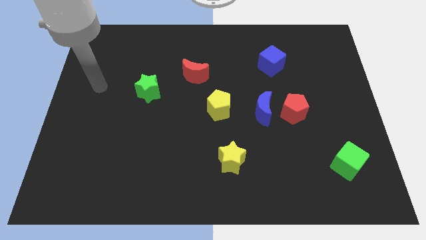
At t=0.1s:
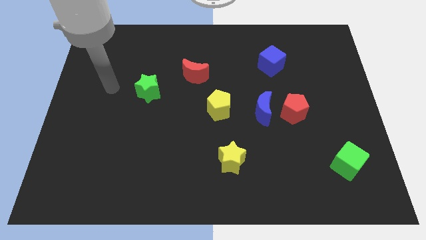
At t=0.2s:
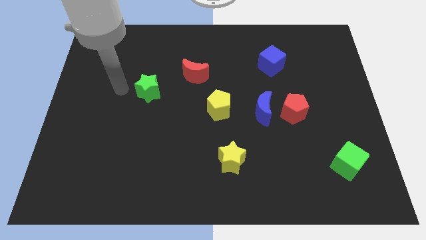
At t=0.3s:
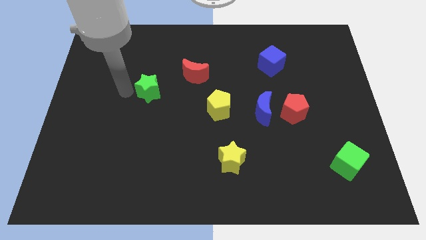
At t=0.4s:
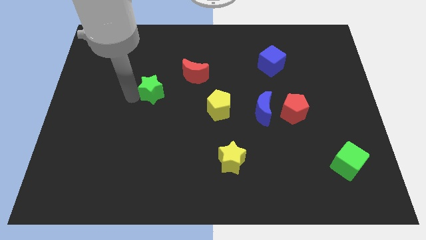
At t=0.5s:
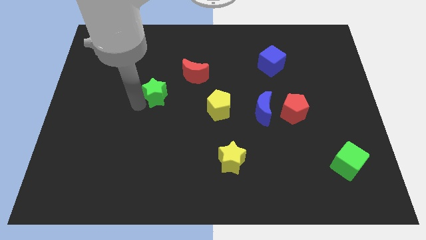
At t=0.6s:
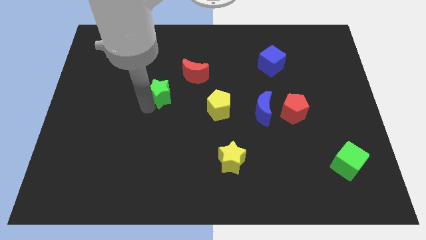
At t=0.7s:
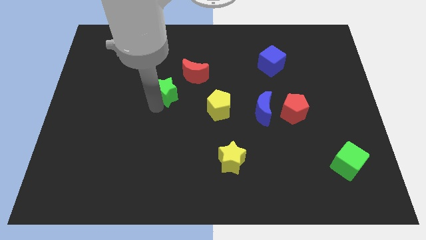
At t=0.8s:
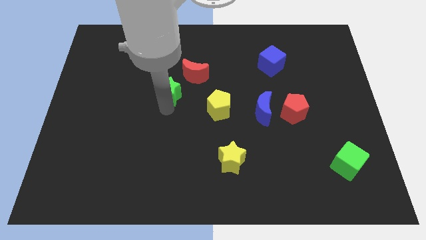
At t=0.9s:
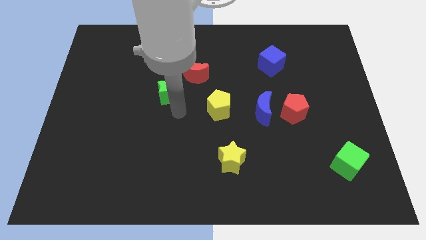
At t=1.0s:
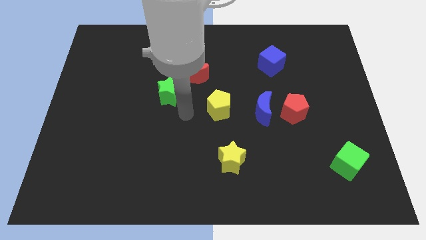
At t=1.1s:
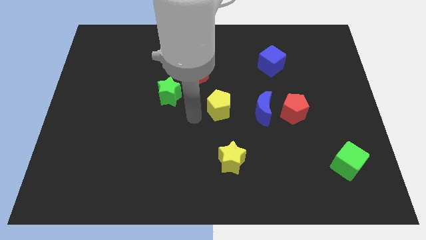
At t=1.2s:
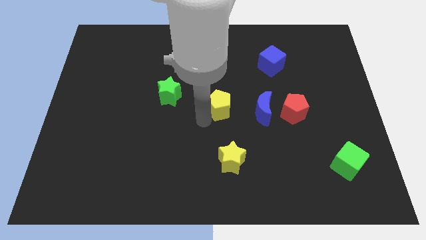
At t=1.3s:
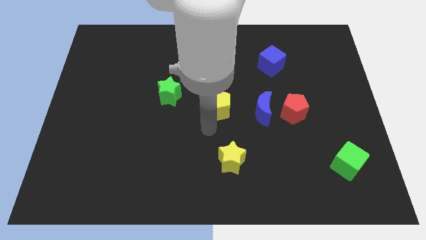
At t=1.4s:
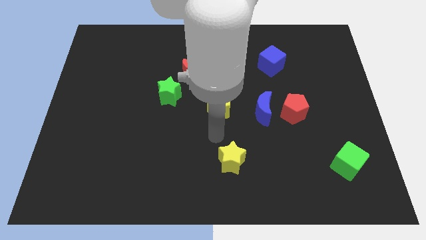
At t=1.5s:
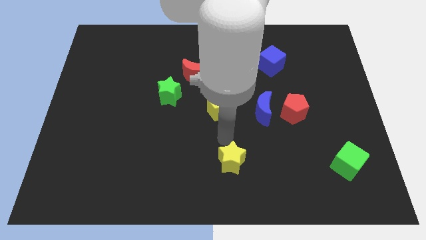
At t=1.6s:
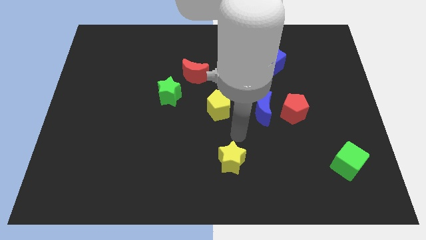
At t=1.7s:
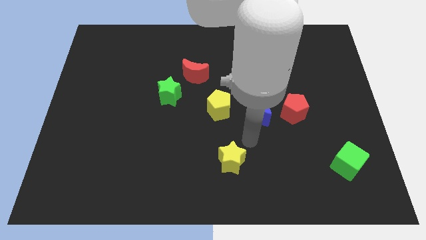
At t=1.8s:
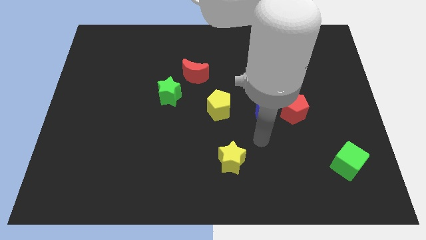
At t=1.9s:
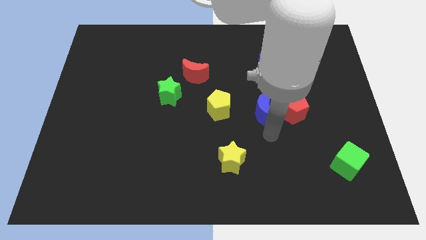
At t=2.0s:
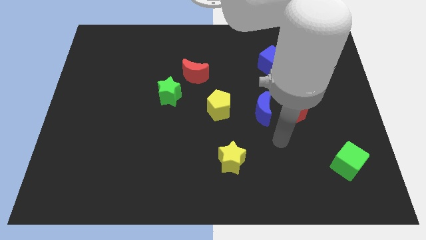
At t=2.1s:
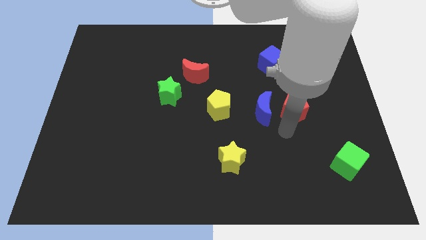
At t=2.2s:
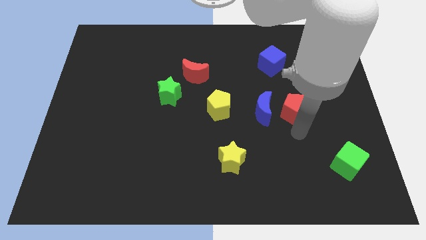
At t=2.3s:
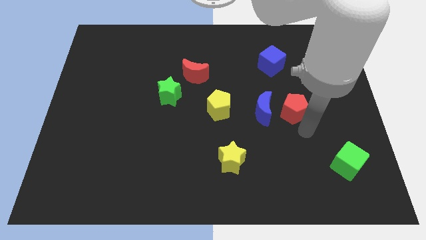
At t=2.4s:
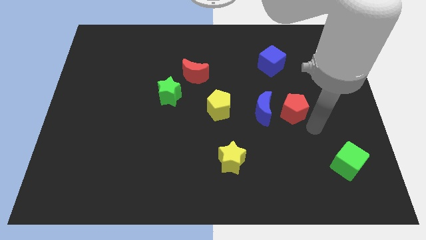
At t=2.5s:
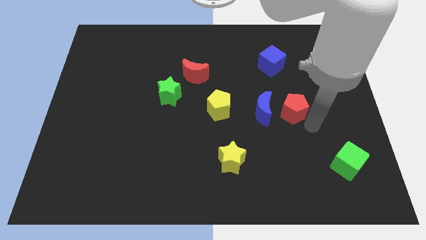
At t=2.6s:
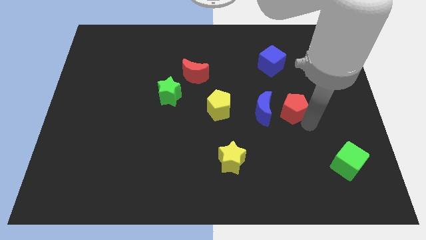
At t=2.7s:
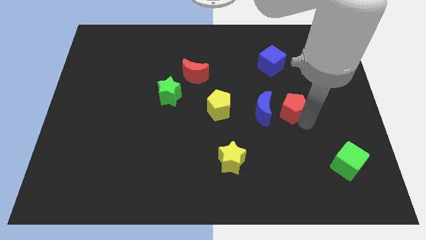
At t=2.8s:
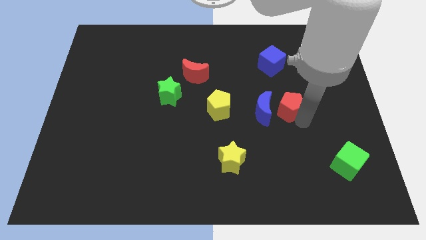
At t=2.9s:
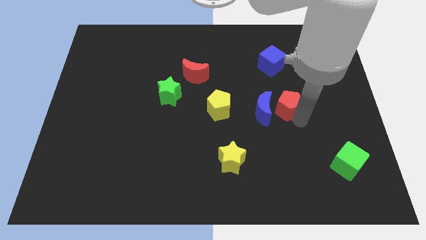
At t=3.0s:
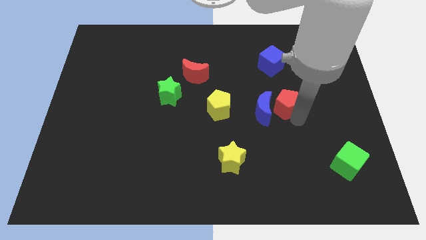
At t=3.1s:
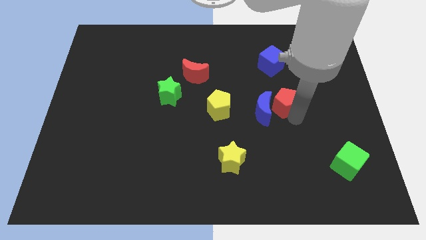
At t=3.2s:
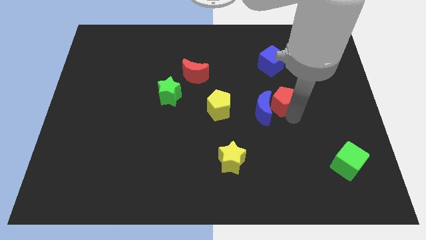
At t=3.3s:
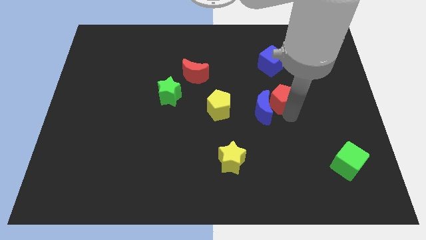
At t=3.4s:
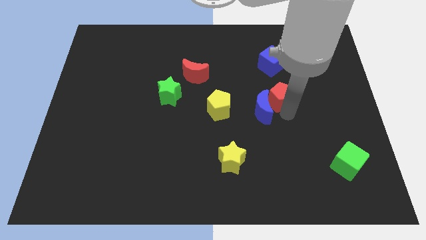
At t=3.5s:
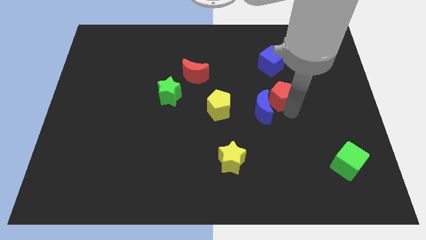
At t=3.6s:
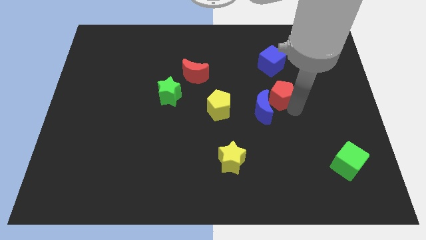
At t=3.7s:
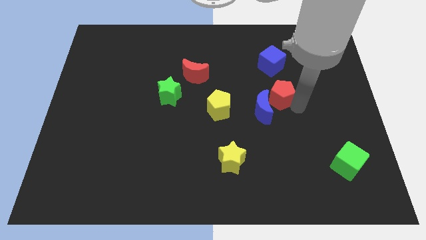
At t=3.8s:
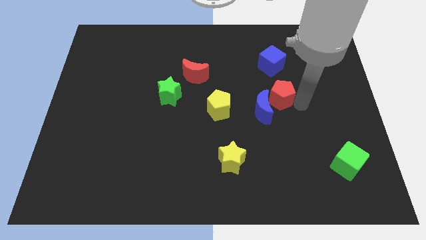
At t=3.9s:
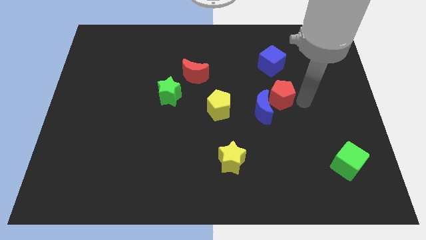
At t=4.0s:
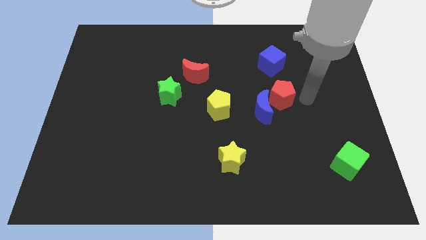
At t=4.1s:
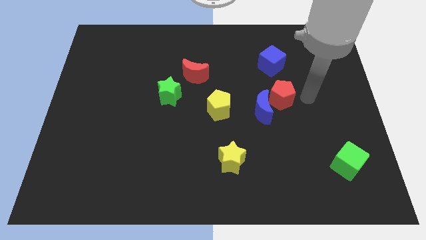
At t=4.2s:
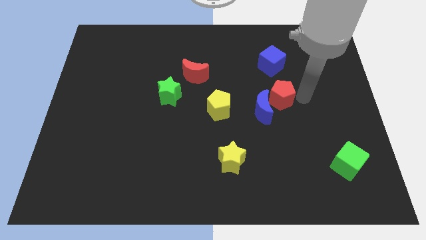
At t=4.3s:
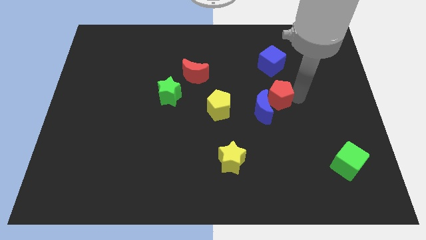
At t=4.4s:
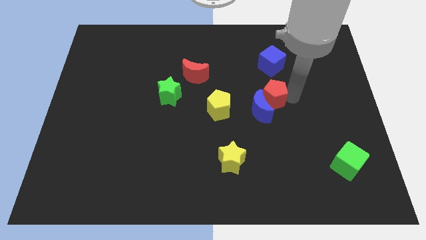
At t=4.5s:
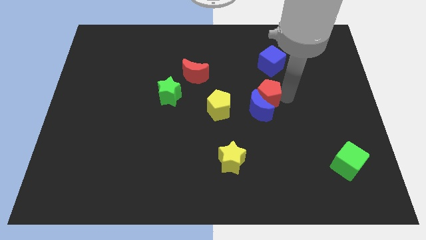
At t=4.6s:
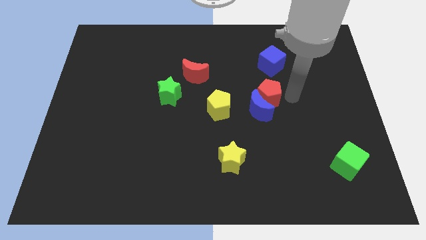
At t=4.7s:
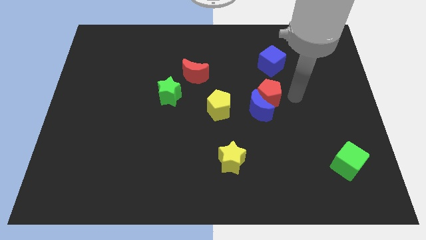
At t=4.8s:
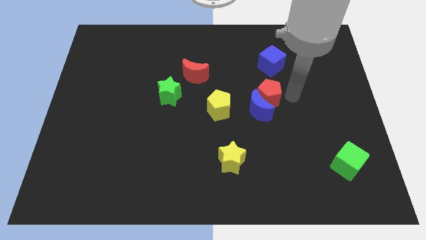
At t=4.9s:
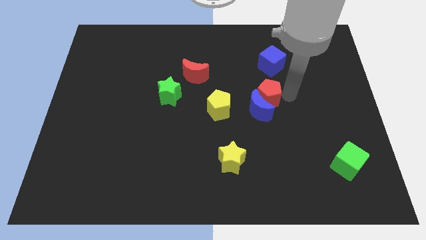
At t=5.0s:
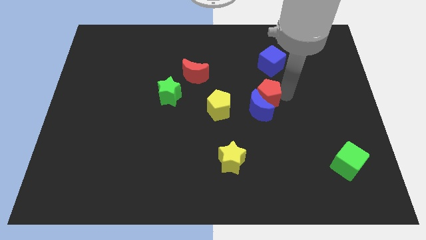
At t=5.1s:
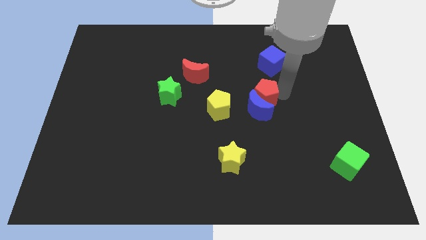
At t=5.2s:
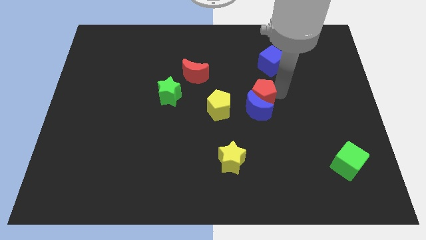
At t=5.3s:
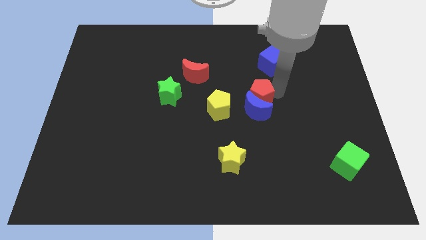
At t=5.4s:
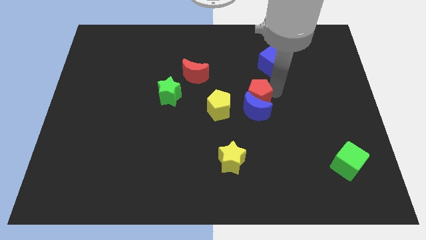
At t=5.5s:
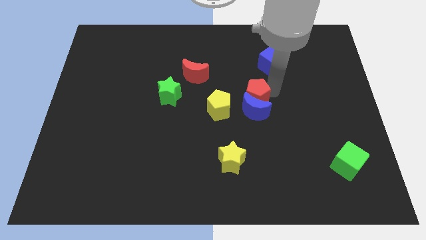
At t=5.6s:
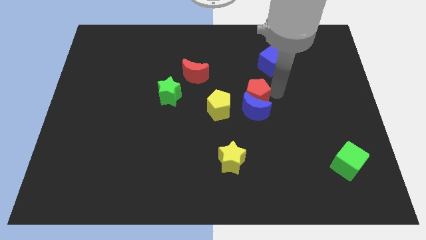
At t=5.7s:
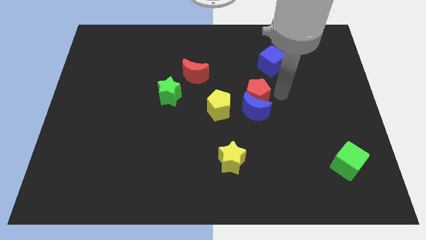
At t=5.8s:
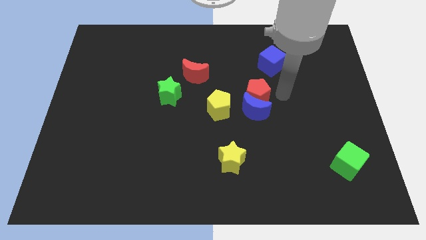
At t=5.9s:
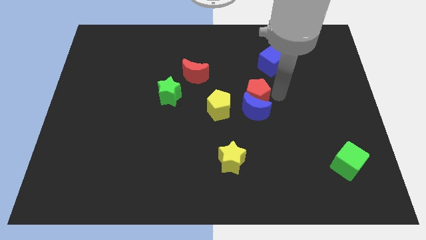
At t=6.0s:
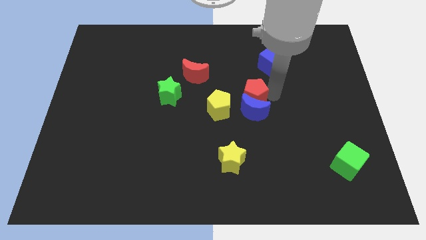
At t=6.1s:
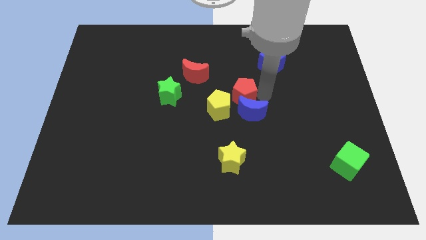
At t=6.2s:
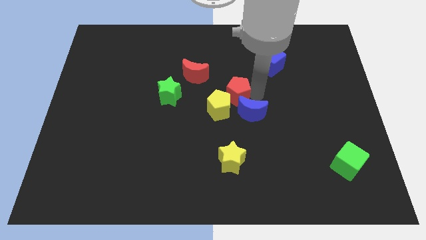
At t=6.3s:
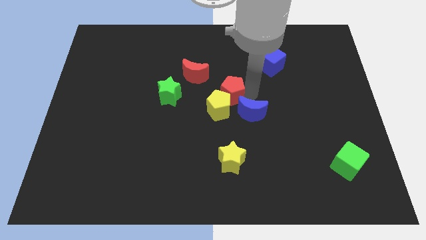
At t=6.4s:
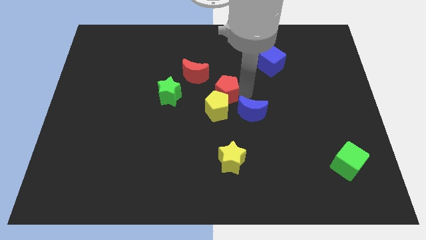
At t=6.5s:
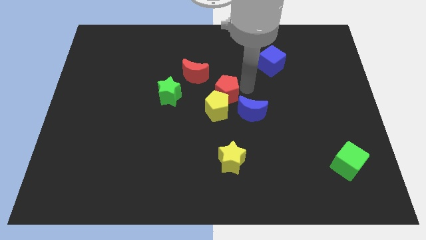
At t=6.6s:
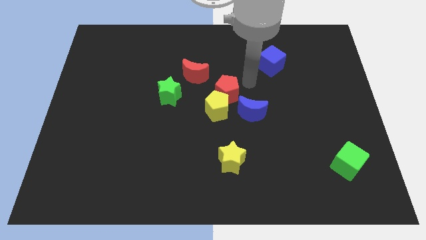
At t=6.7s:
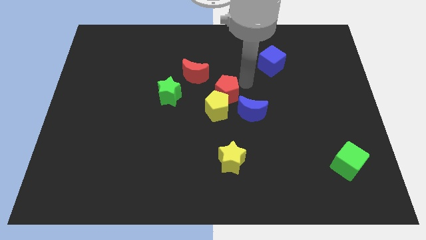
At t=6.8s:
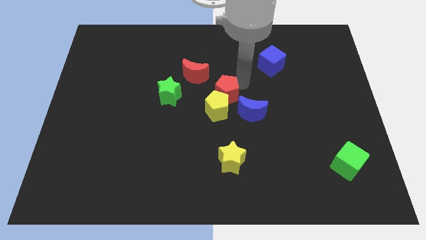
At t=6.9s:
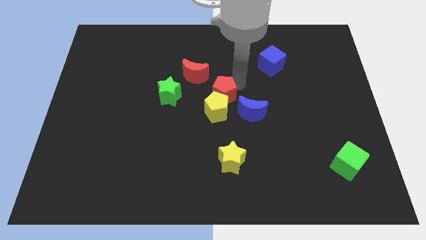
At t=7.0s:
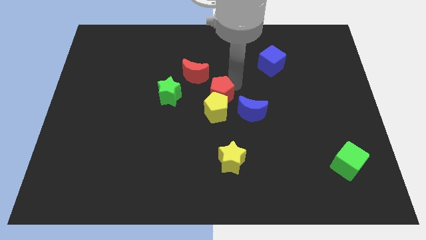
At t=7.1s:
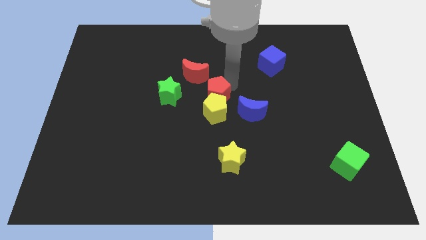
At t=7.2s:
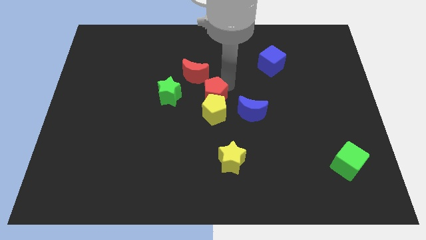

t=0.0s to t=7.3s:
slide the red pentagon below the red moon

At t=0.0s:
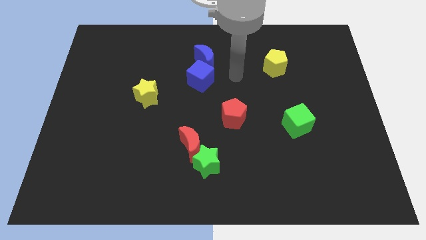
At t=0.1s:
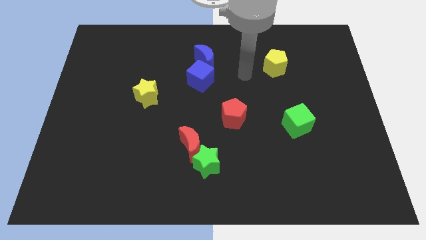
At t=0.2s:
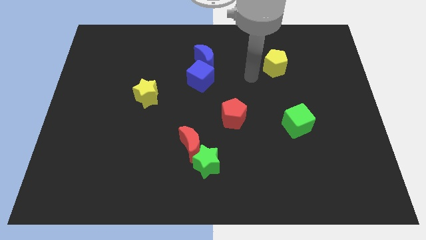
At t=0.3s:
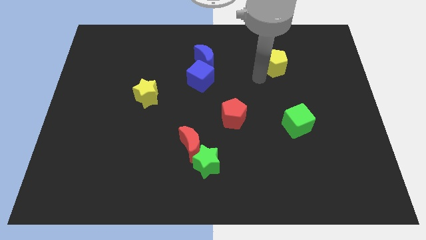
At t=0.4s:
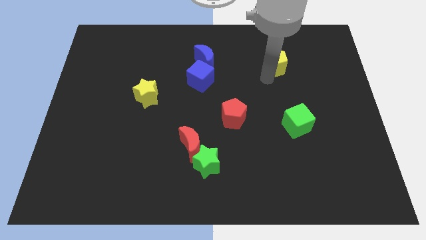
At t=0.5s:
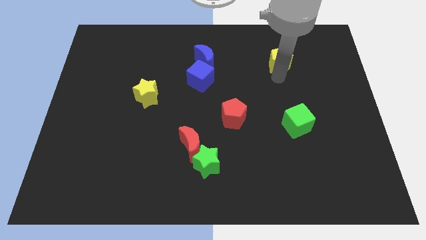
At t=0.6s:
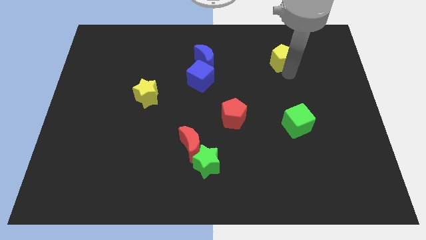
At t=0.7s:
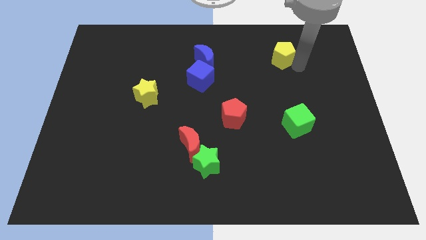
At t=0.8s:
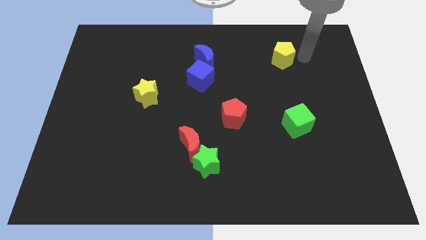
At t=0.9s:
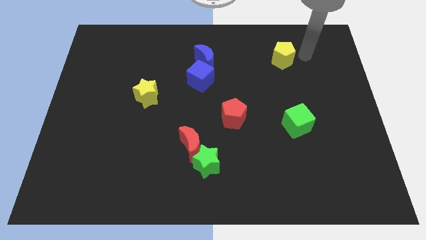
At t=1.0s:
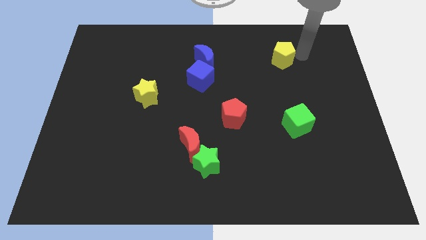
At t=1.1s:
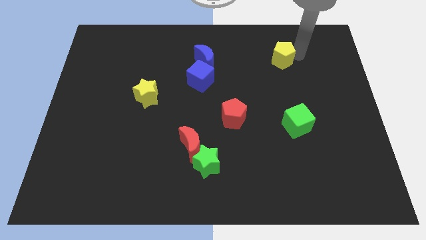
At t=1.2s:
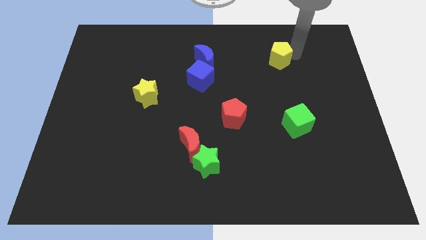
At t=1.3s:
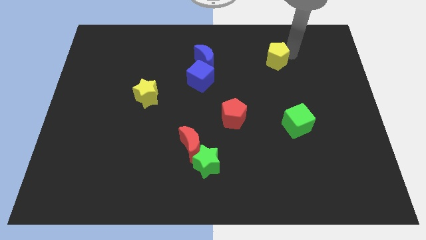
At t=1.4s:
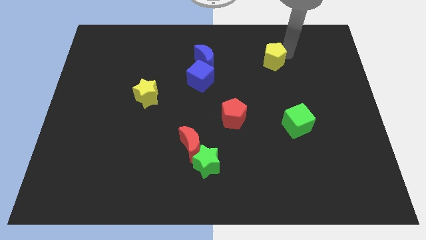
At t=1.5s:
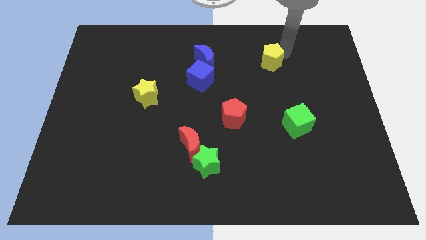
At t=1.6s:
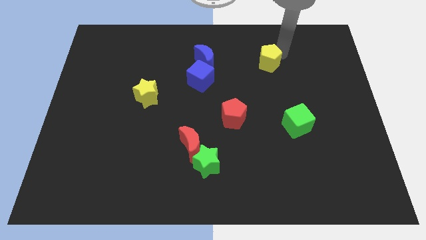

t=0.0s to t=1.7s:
slide the yellow pentagon just right of the blue moon
